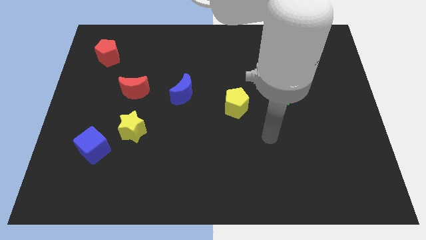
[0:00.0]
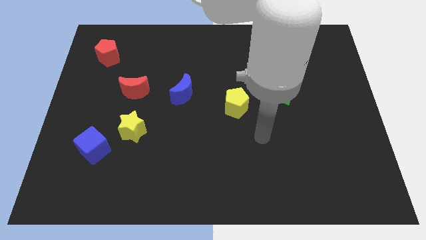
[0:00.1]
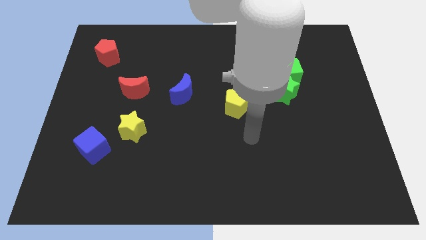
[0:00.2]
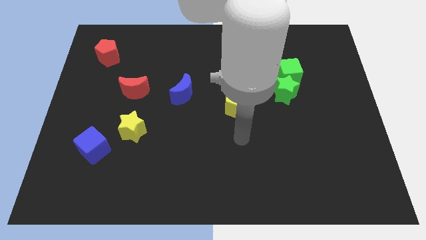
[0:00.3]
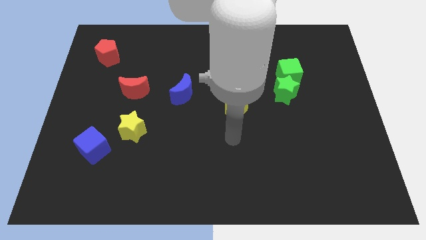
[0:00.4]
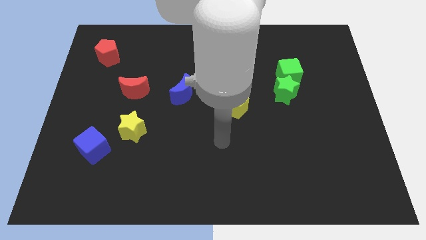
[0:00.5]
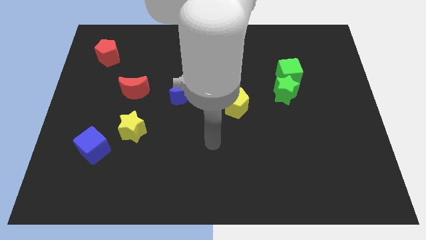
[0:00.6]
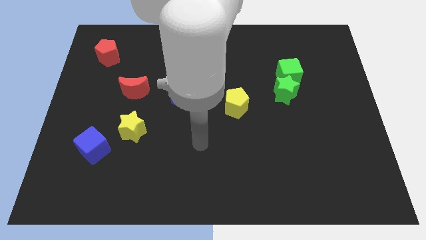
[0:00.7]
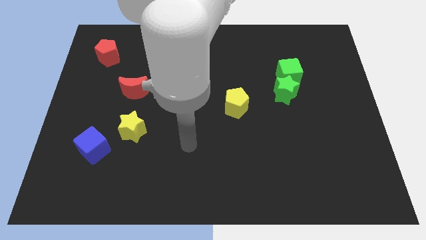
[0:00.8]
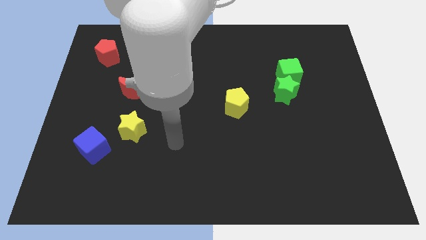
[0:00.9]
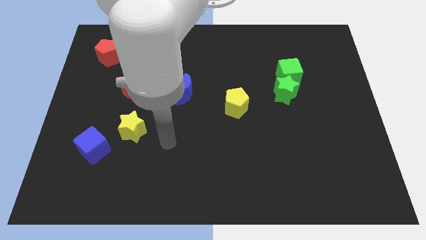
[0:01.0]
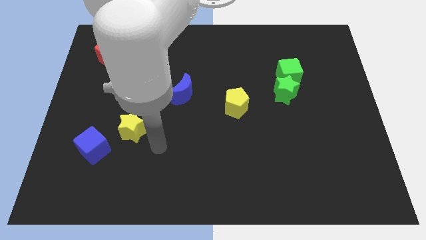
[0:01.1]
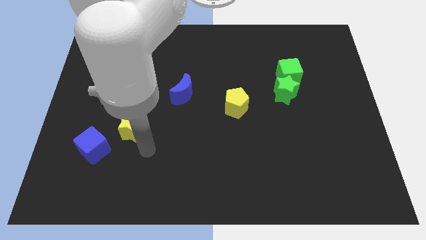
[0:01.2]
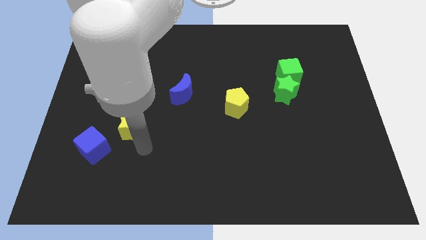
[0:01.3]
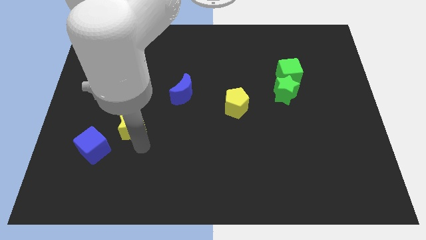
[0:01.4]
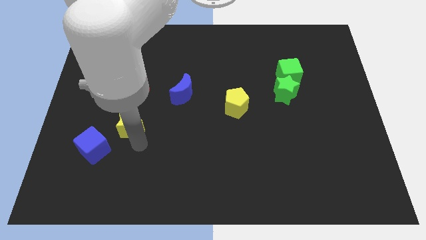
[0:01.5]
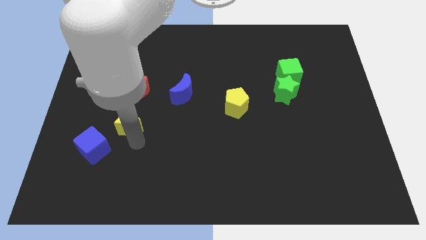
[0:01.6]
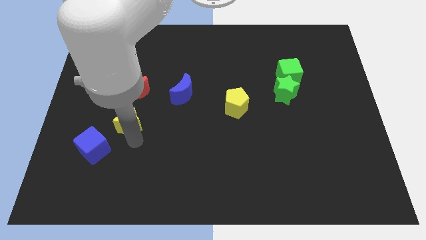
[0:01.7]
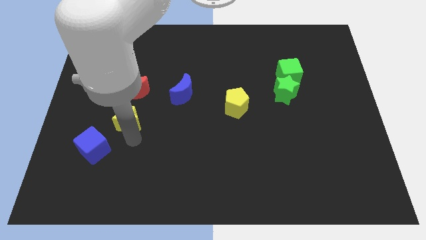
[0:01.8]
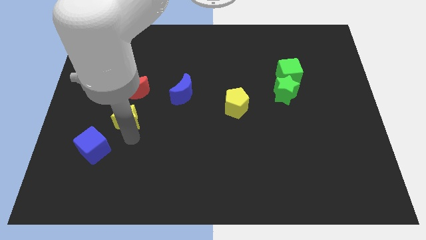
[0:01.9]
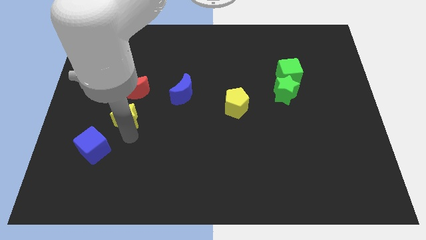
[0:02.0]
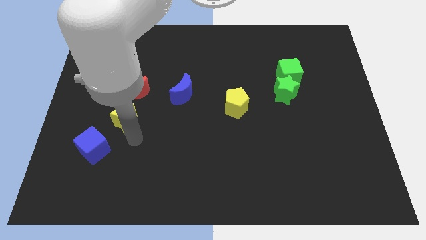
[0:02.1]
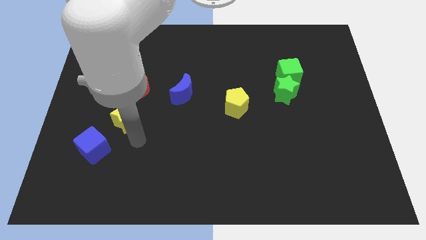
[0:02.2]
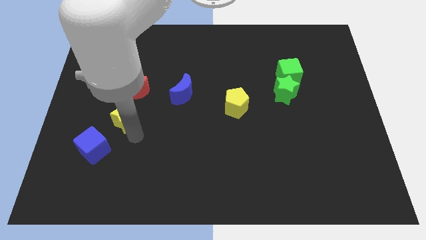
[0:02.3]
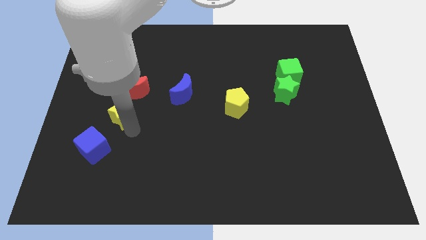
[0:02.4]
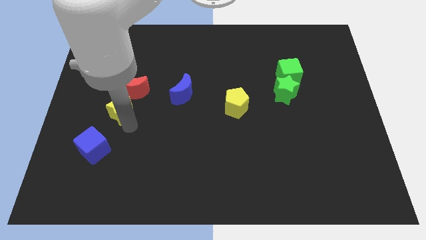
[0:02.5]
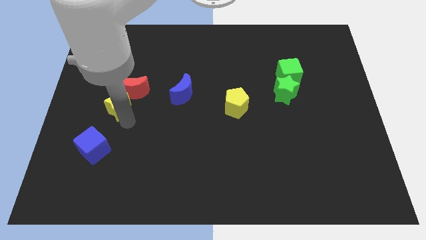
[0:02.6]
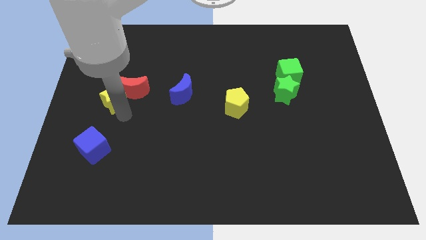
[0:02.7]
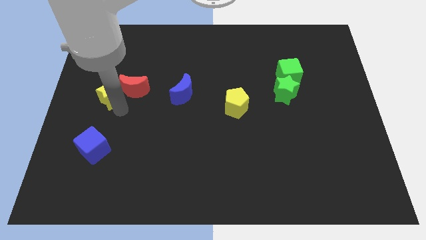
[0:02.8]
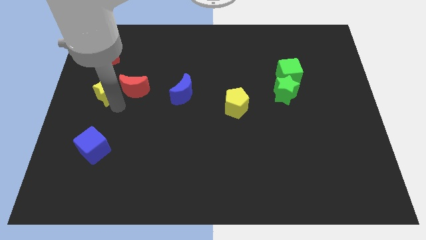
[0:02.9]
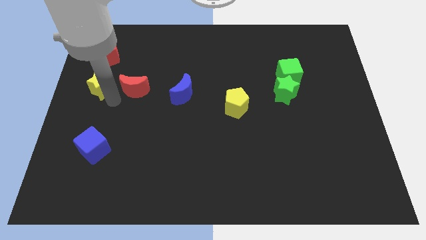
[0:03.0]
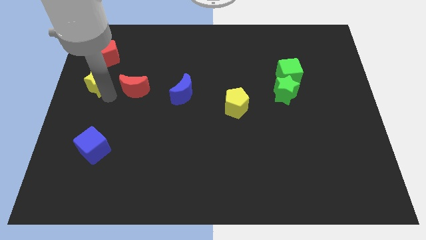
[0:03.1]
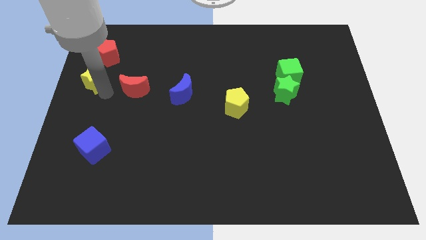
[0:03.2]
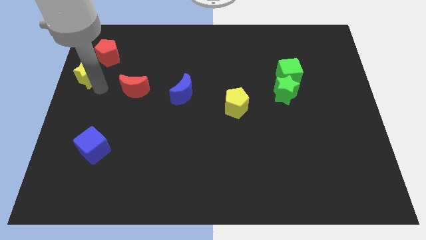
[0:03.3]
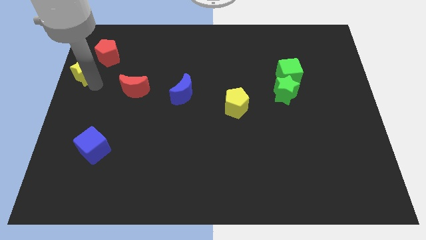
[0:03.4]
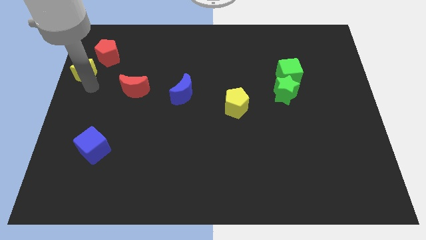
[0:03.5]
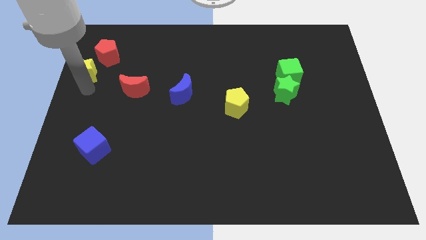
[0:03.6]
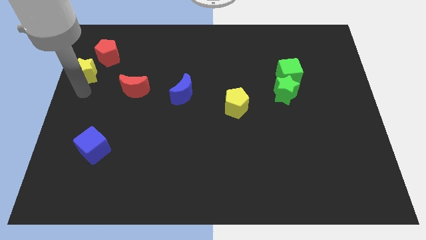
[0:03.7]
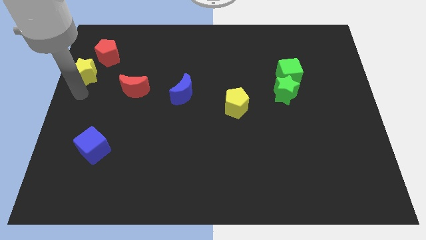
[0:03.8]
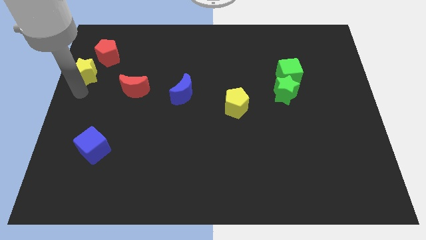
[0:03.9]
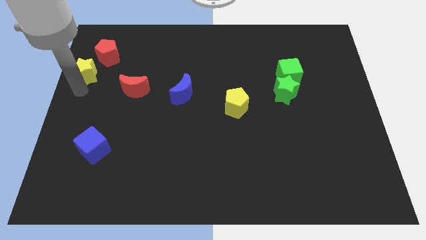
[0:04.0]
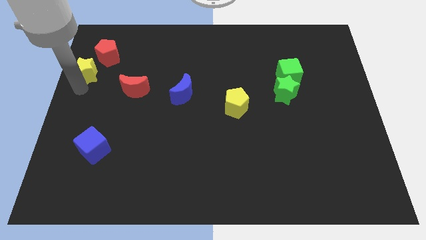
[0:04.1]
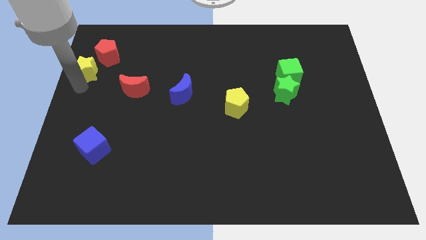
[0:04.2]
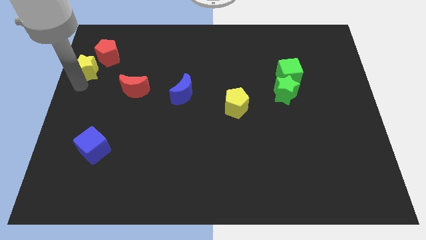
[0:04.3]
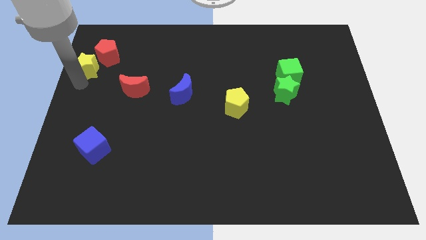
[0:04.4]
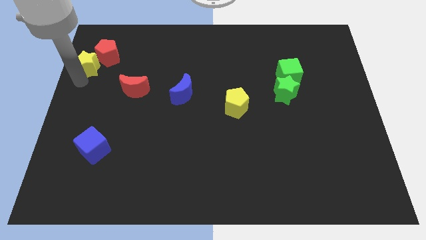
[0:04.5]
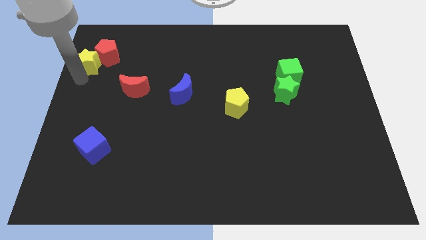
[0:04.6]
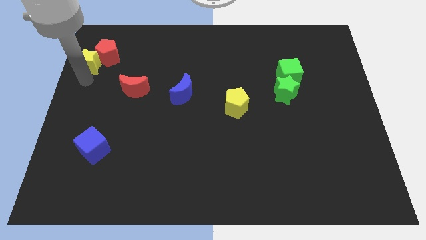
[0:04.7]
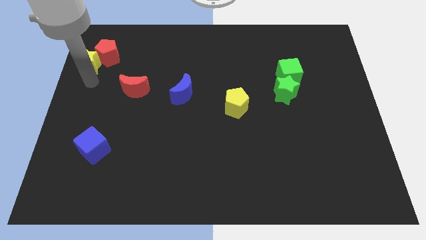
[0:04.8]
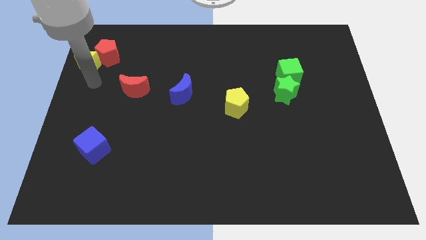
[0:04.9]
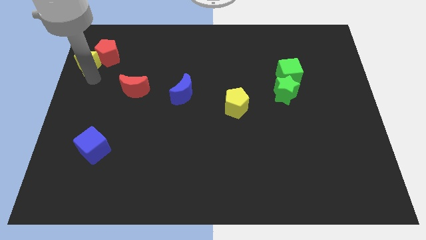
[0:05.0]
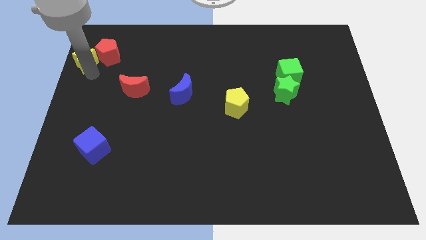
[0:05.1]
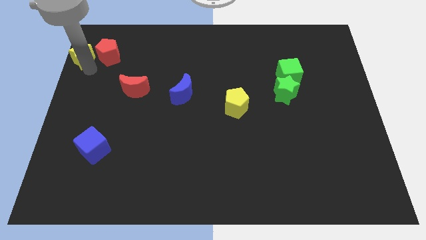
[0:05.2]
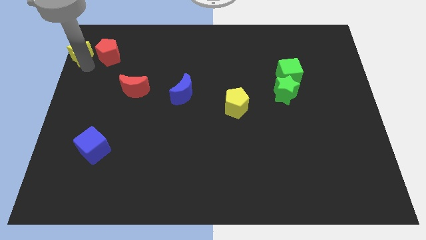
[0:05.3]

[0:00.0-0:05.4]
move the yellow star to the upper left corner
